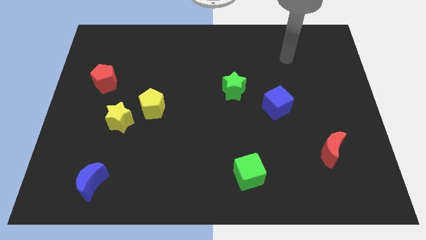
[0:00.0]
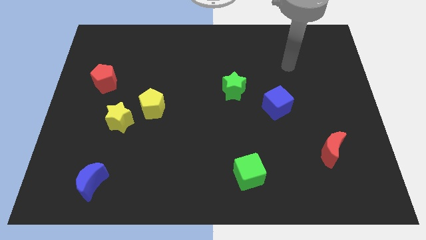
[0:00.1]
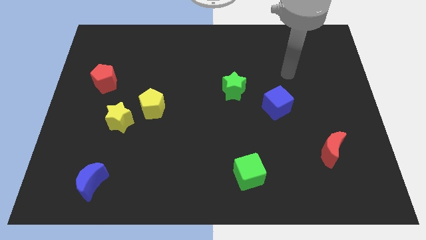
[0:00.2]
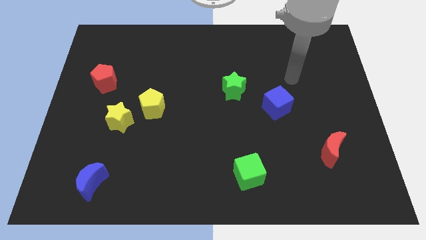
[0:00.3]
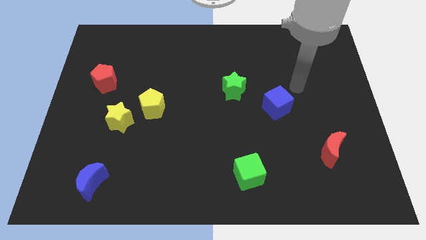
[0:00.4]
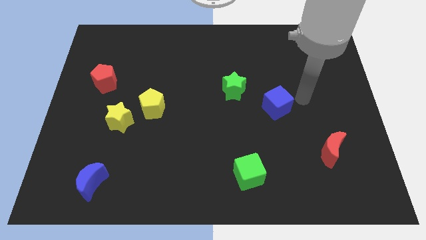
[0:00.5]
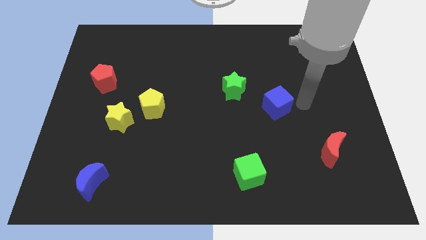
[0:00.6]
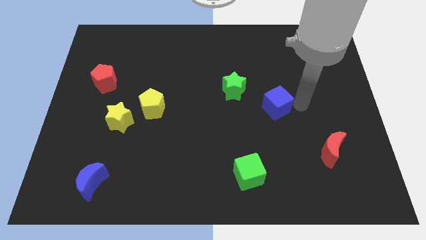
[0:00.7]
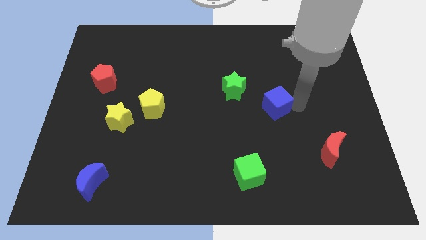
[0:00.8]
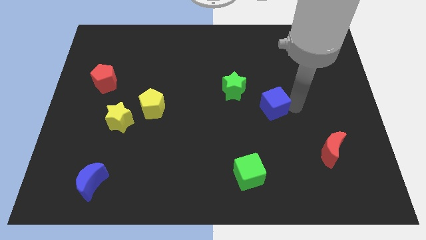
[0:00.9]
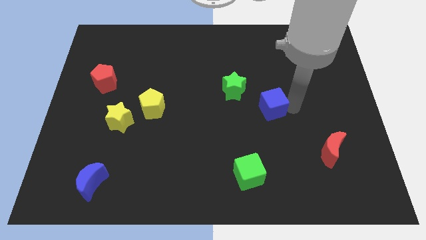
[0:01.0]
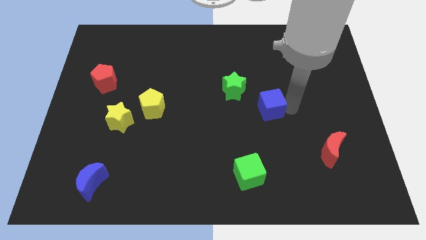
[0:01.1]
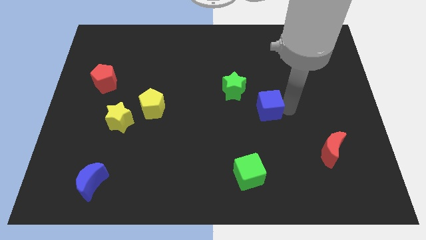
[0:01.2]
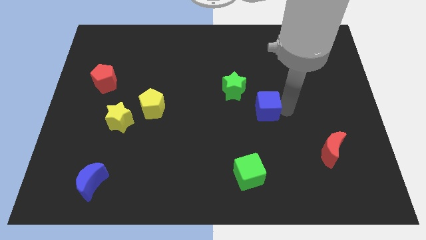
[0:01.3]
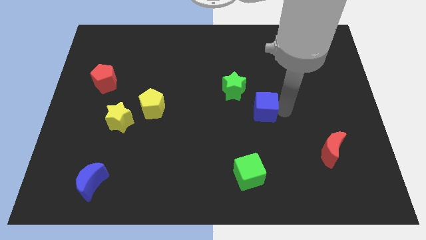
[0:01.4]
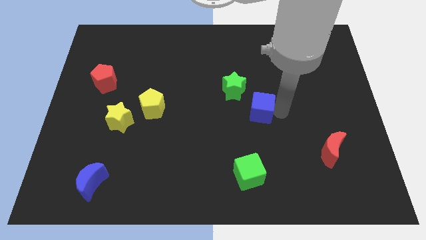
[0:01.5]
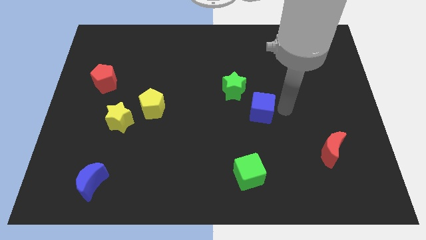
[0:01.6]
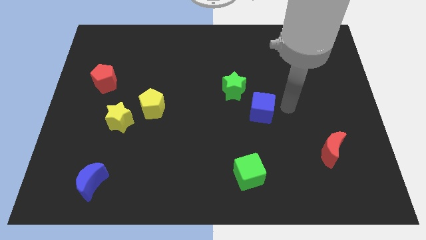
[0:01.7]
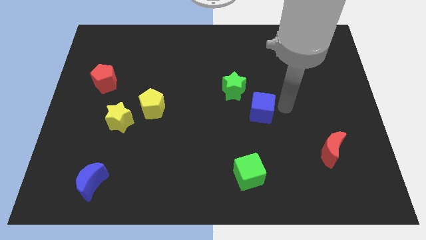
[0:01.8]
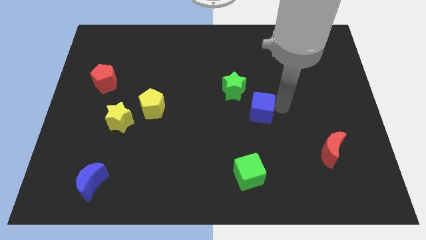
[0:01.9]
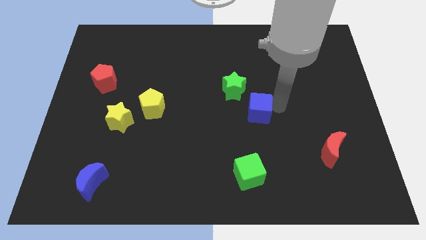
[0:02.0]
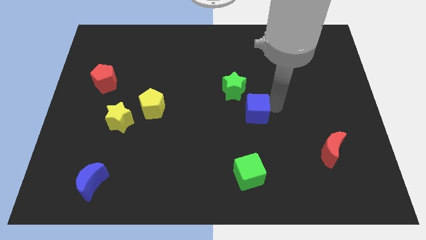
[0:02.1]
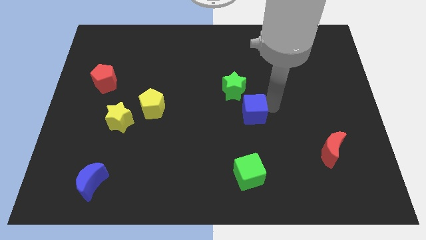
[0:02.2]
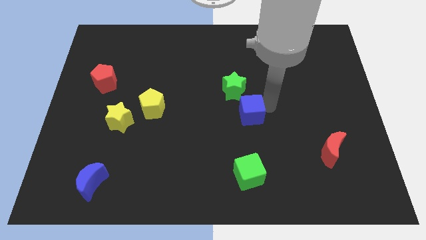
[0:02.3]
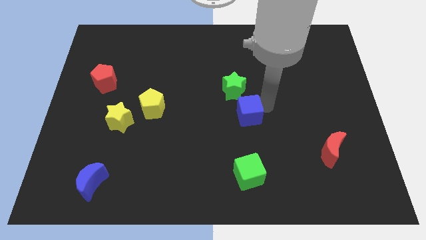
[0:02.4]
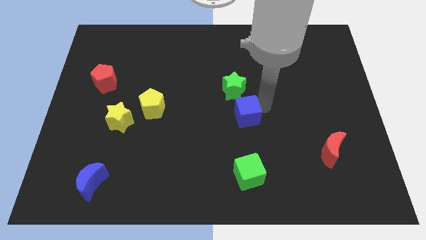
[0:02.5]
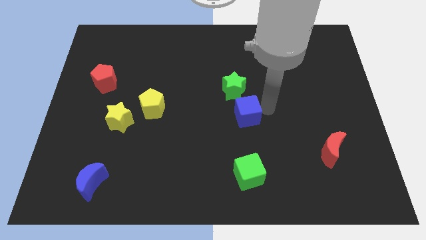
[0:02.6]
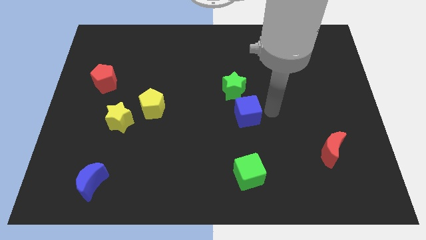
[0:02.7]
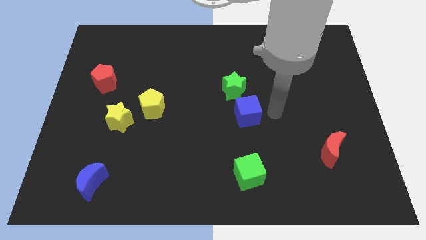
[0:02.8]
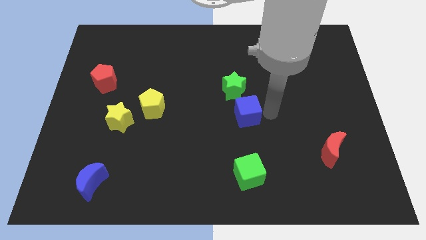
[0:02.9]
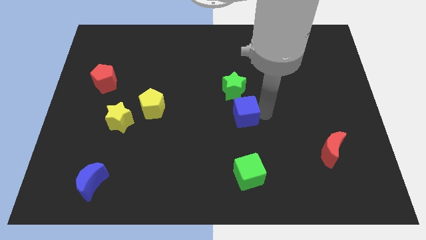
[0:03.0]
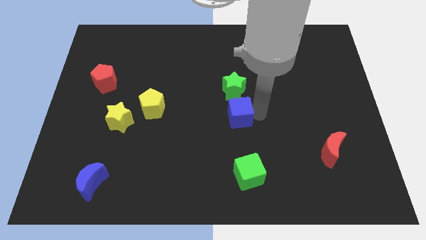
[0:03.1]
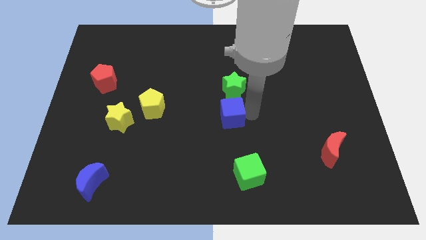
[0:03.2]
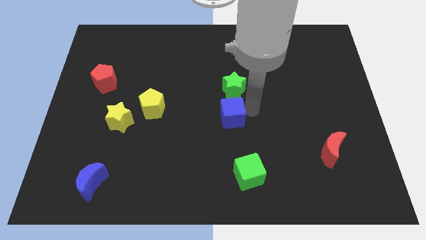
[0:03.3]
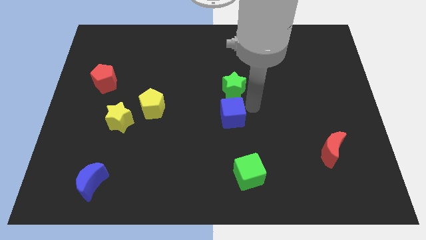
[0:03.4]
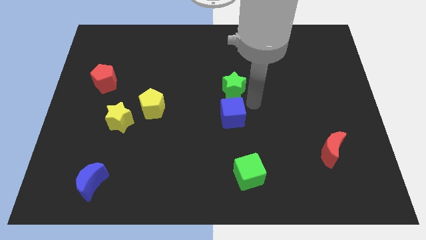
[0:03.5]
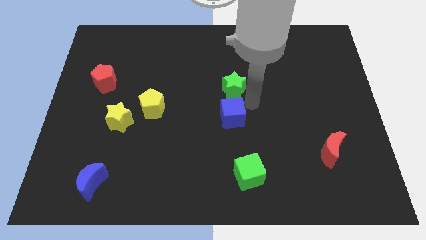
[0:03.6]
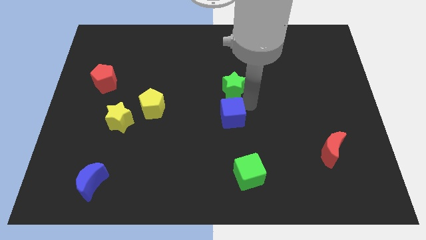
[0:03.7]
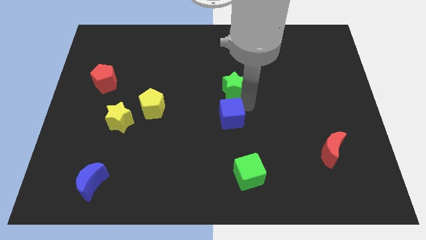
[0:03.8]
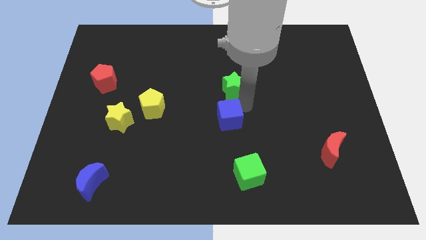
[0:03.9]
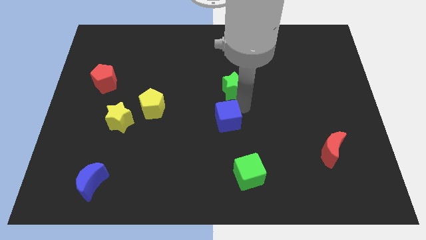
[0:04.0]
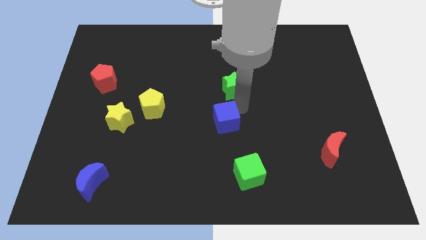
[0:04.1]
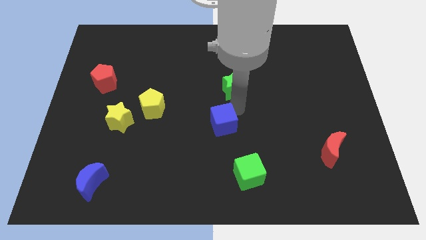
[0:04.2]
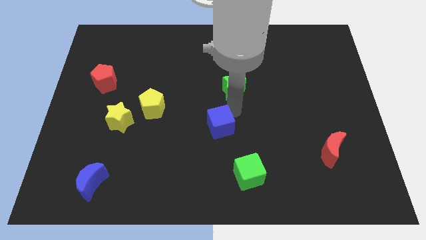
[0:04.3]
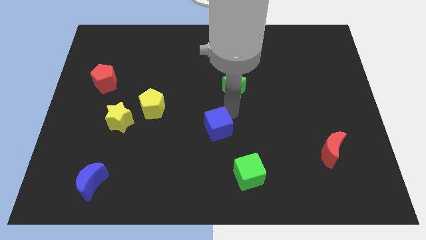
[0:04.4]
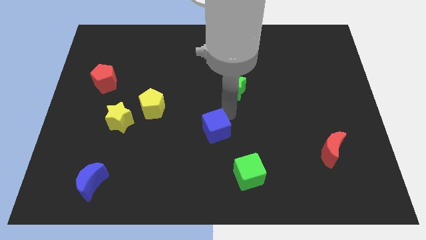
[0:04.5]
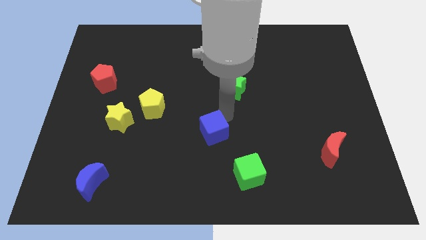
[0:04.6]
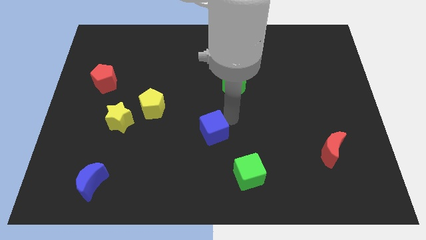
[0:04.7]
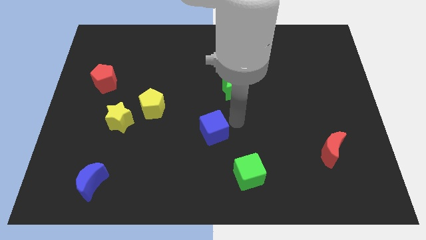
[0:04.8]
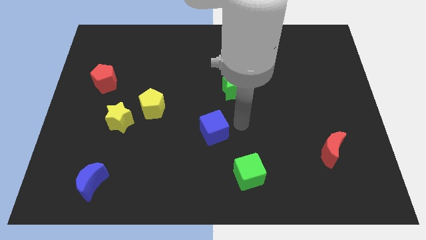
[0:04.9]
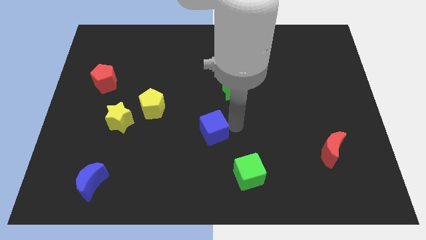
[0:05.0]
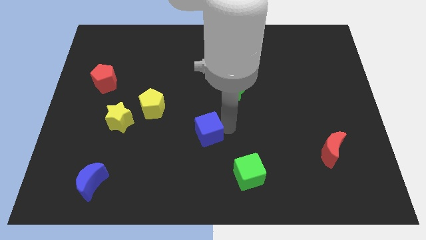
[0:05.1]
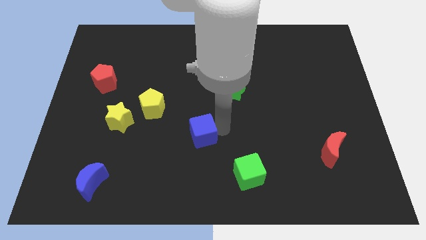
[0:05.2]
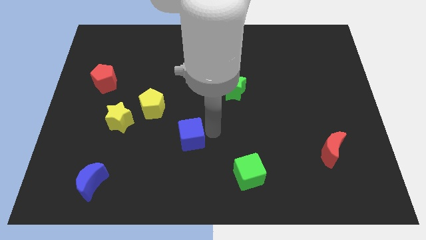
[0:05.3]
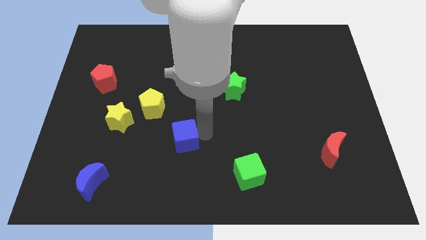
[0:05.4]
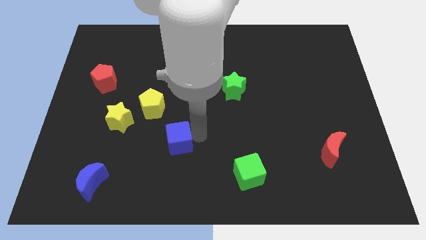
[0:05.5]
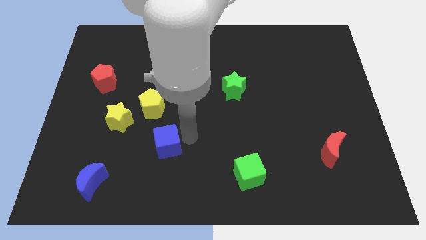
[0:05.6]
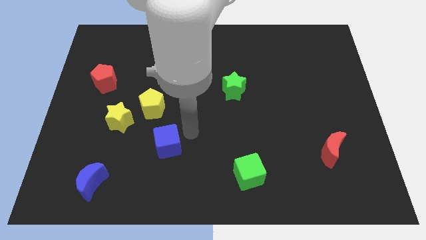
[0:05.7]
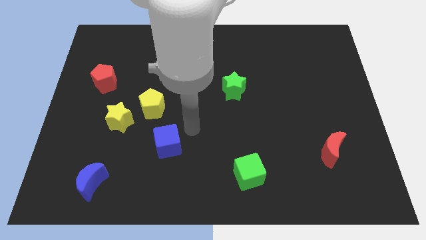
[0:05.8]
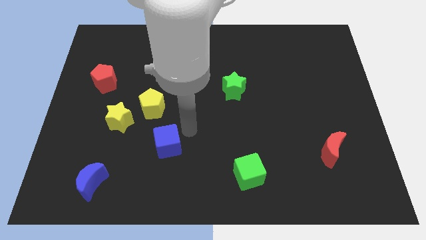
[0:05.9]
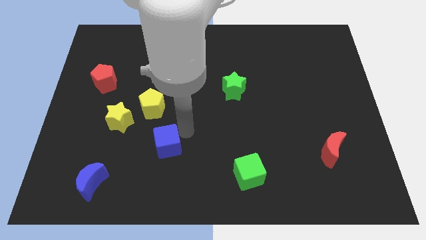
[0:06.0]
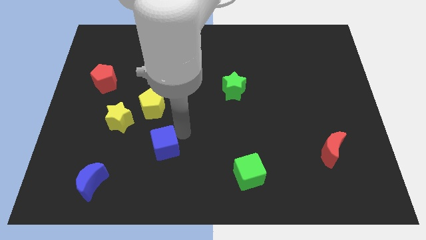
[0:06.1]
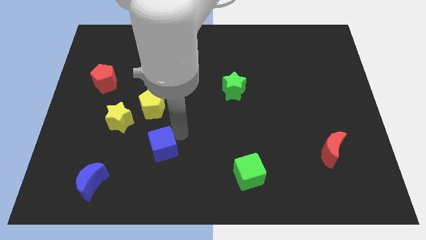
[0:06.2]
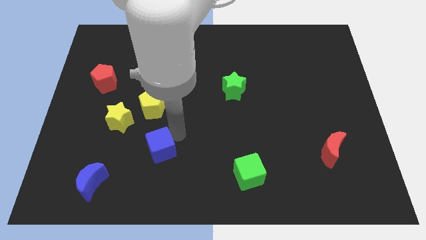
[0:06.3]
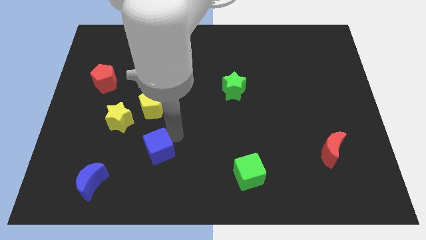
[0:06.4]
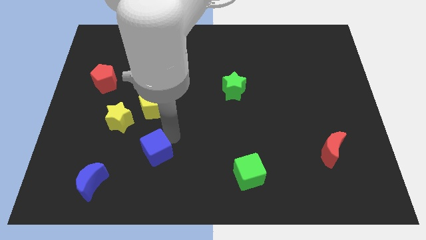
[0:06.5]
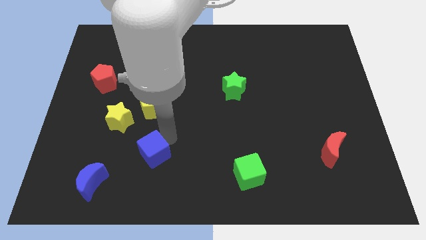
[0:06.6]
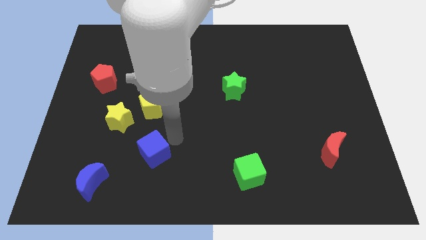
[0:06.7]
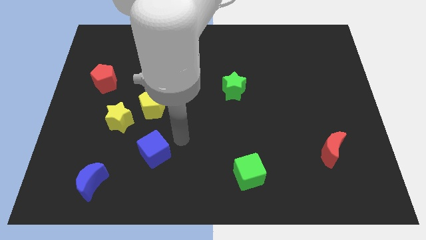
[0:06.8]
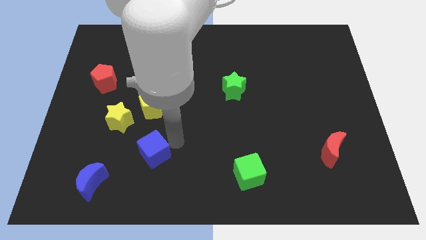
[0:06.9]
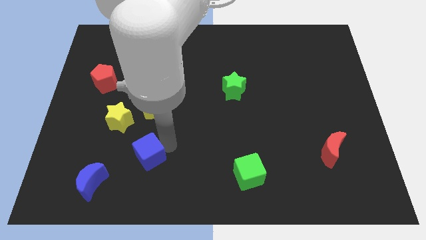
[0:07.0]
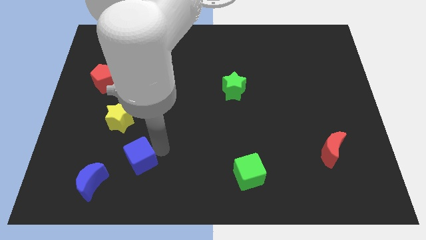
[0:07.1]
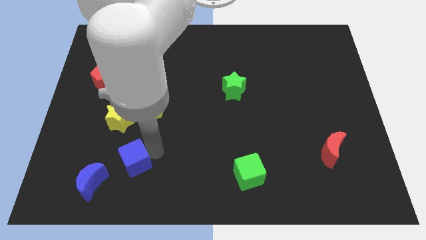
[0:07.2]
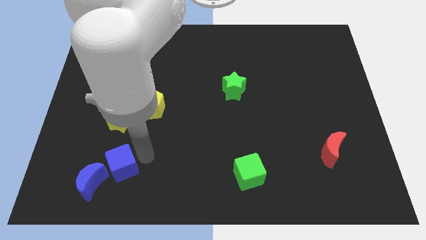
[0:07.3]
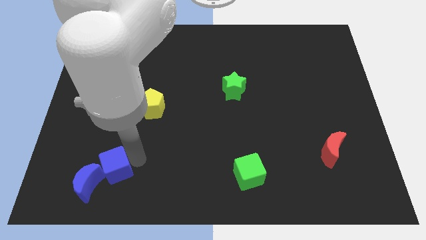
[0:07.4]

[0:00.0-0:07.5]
move the blue cube close to the blue moon
